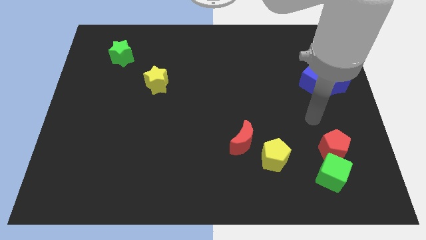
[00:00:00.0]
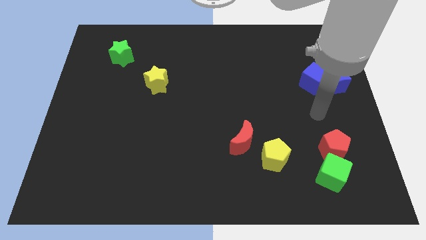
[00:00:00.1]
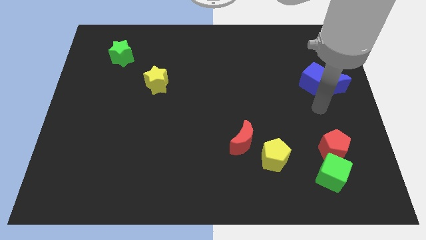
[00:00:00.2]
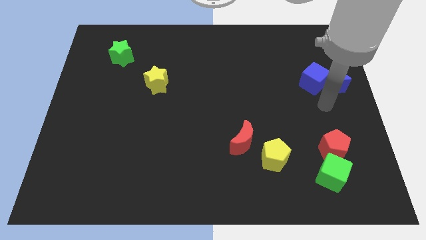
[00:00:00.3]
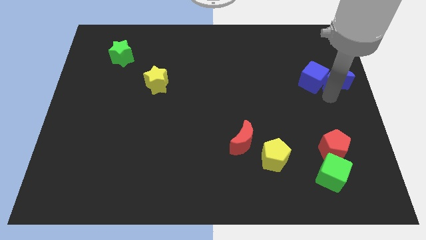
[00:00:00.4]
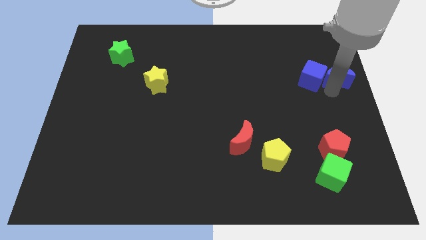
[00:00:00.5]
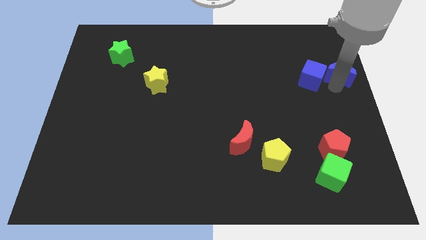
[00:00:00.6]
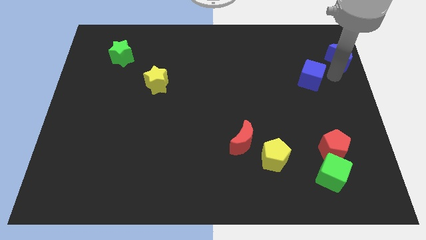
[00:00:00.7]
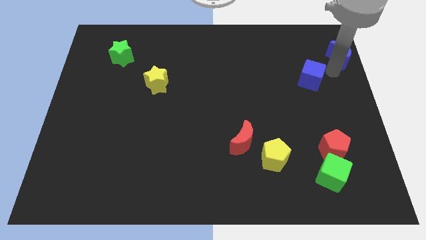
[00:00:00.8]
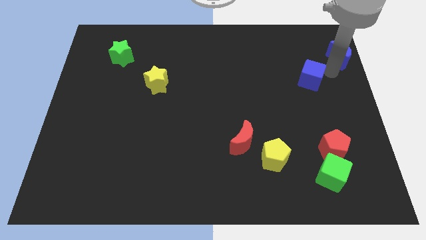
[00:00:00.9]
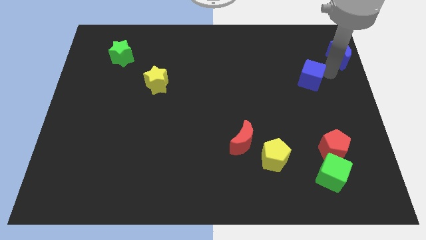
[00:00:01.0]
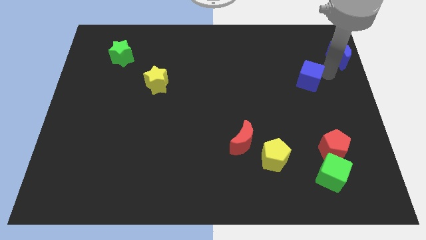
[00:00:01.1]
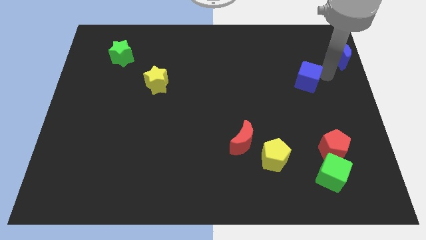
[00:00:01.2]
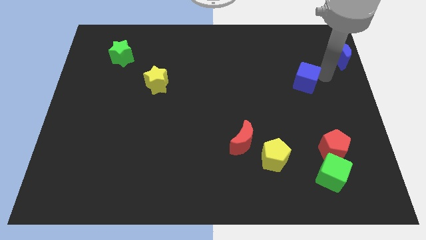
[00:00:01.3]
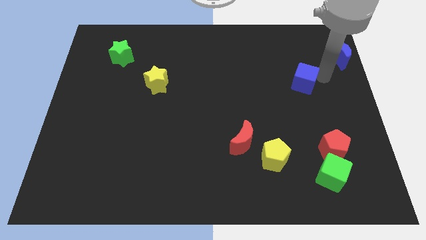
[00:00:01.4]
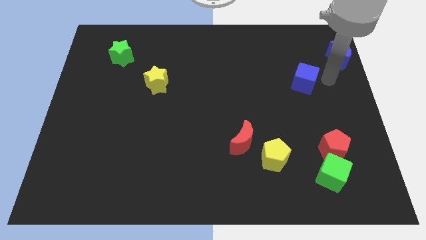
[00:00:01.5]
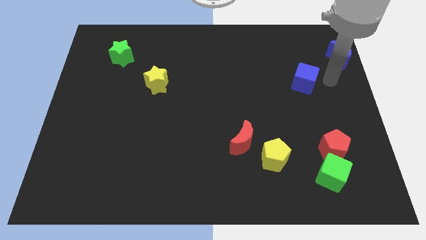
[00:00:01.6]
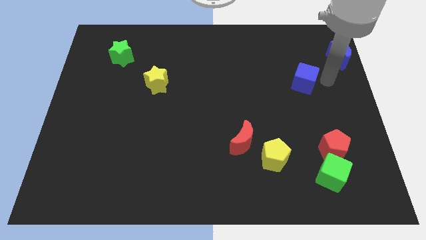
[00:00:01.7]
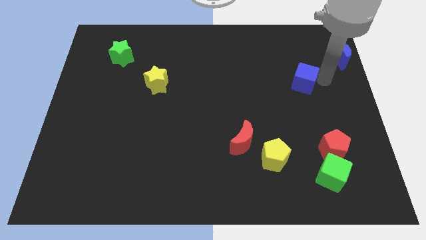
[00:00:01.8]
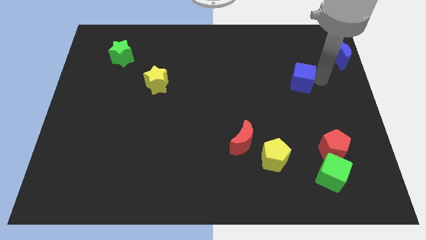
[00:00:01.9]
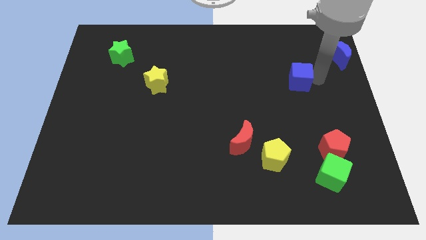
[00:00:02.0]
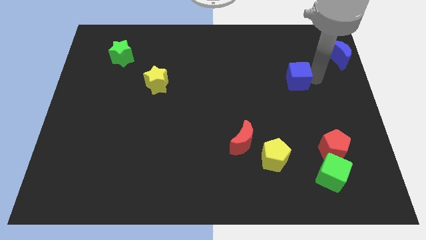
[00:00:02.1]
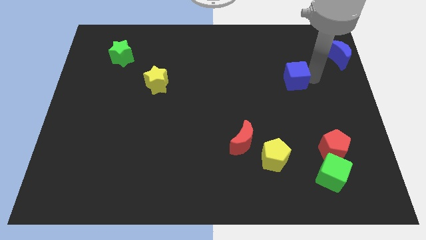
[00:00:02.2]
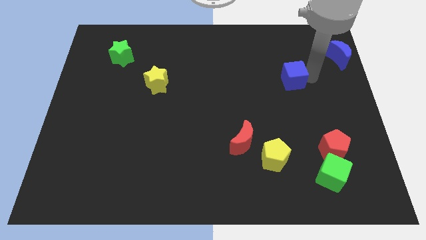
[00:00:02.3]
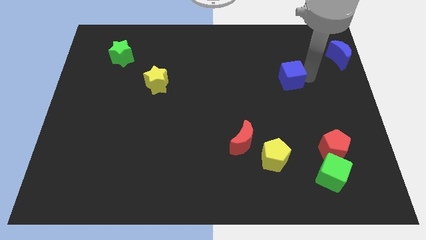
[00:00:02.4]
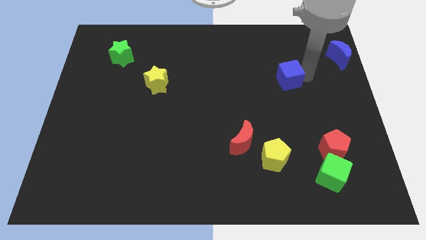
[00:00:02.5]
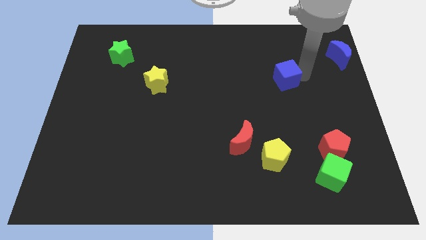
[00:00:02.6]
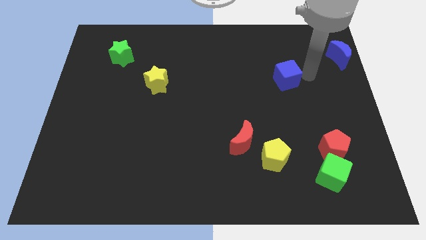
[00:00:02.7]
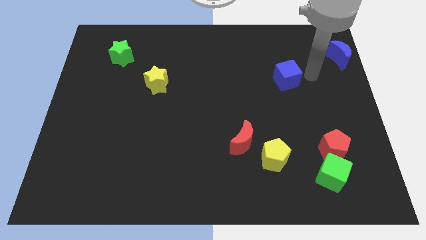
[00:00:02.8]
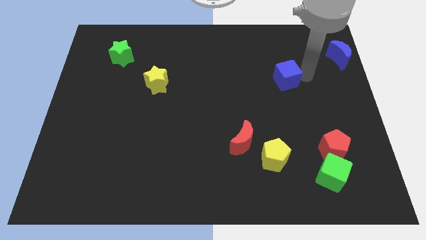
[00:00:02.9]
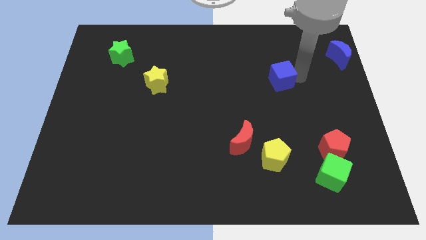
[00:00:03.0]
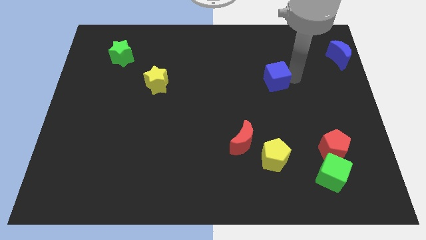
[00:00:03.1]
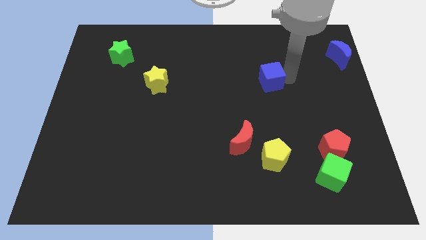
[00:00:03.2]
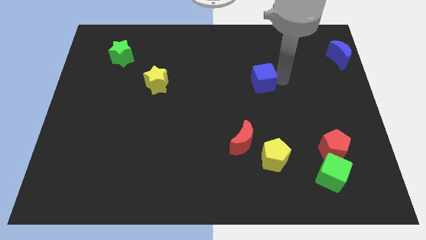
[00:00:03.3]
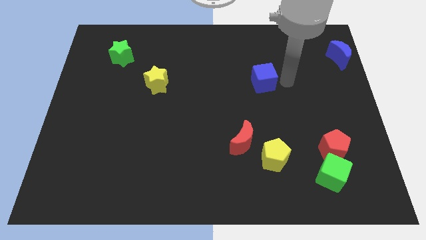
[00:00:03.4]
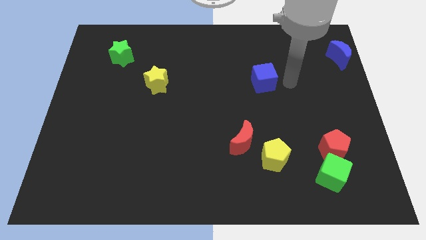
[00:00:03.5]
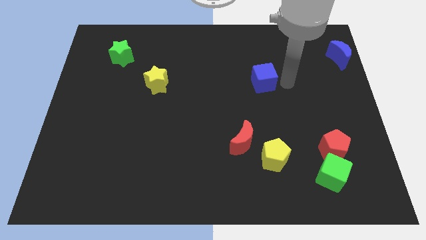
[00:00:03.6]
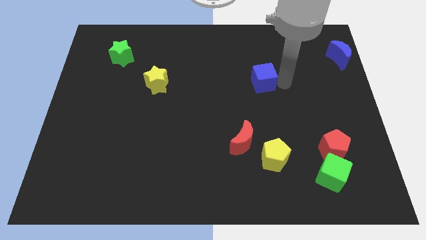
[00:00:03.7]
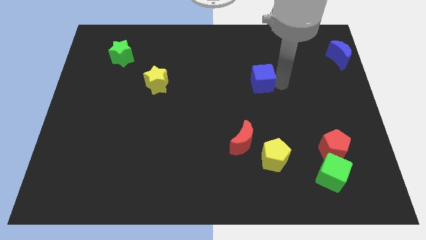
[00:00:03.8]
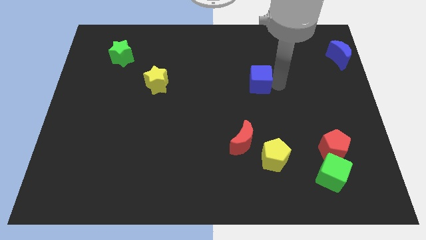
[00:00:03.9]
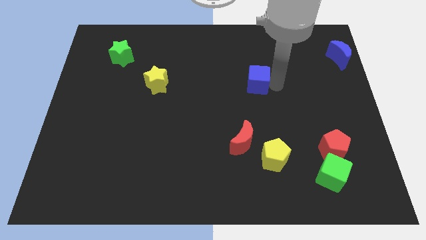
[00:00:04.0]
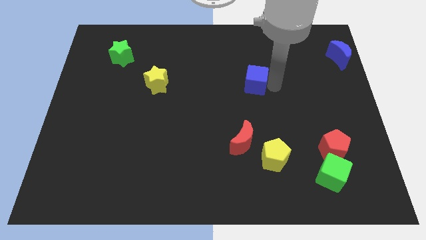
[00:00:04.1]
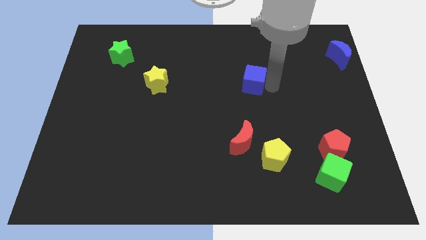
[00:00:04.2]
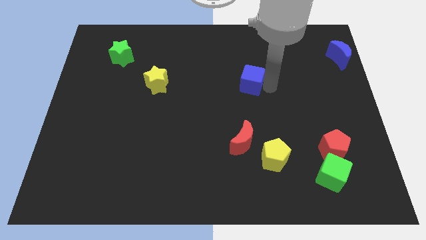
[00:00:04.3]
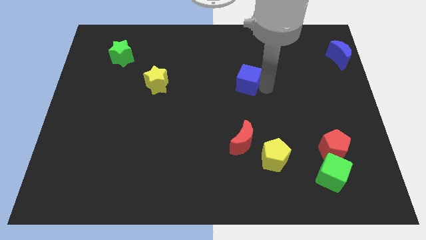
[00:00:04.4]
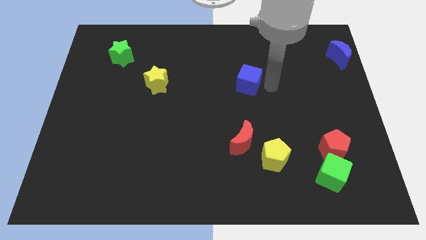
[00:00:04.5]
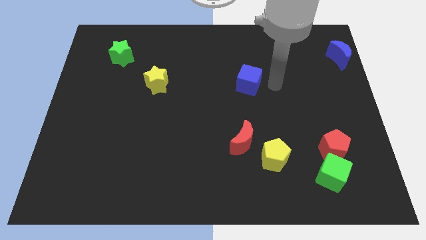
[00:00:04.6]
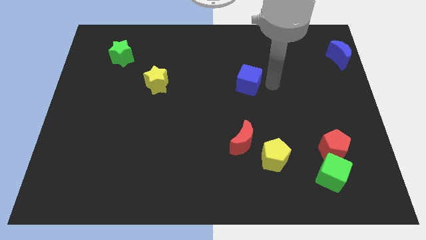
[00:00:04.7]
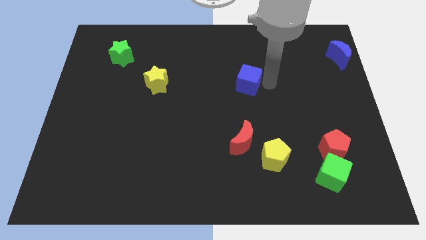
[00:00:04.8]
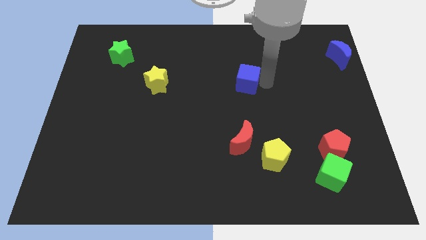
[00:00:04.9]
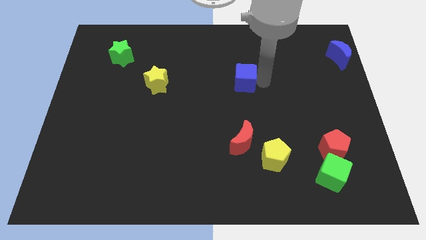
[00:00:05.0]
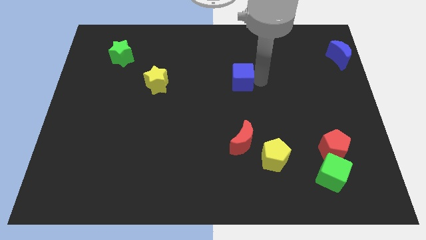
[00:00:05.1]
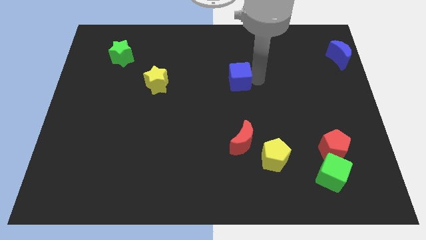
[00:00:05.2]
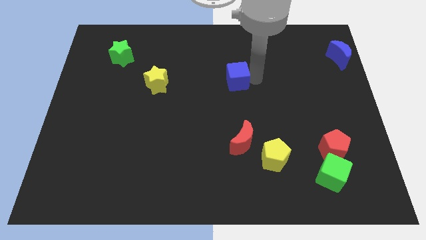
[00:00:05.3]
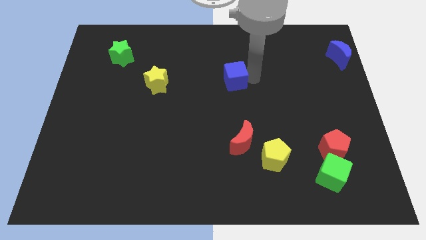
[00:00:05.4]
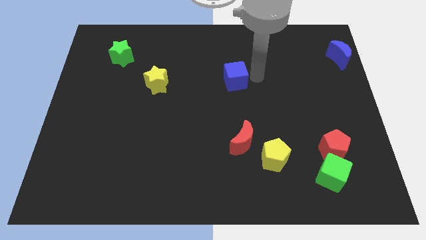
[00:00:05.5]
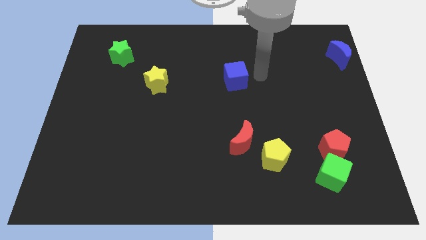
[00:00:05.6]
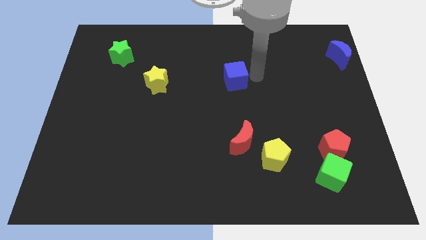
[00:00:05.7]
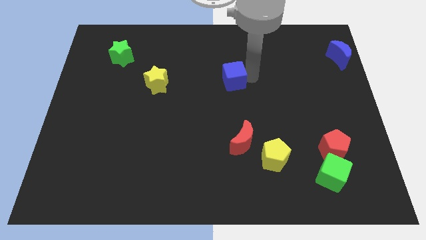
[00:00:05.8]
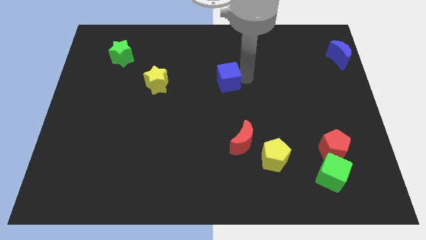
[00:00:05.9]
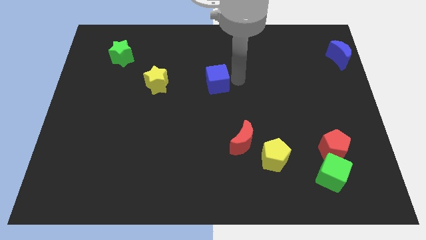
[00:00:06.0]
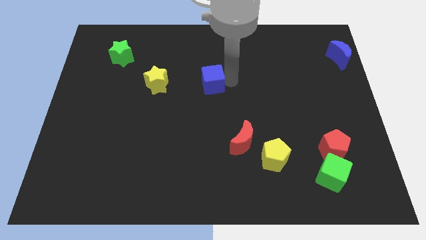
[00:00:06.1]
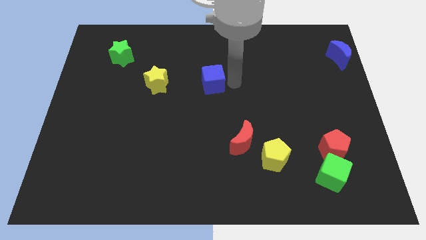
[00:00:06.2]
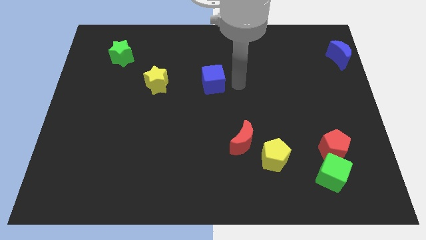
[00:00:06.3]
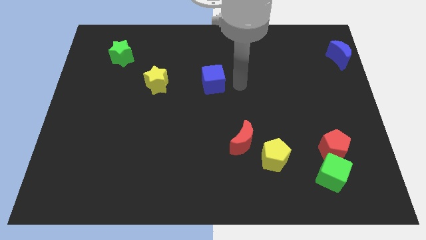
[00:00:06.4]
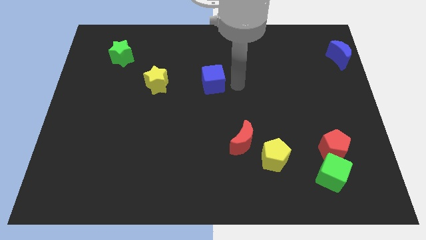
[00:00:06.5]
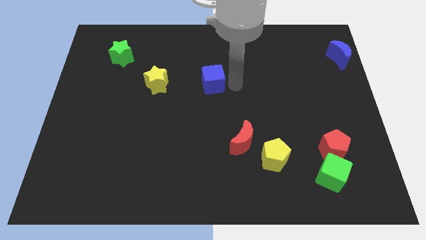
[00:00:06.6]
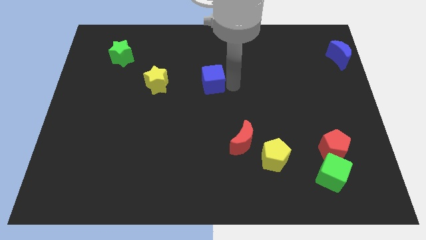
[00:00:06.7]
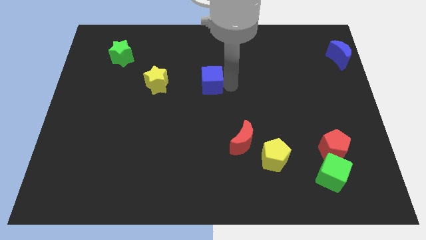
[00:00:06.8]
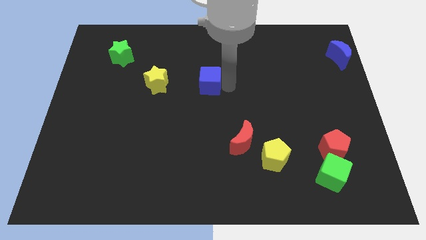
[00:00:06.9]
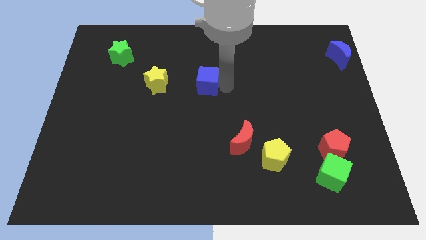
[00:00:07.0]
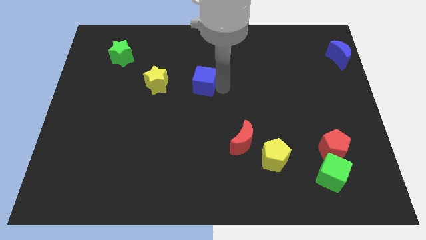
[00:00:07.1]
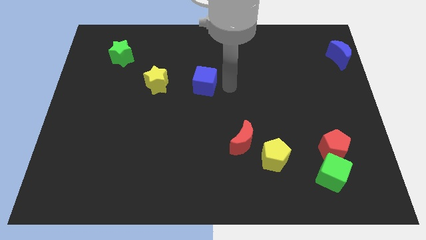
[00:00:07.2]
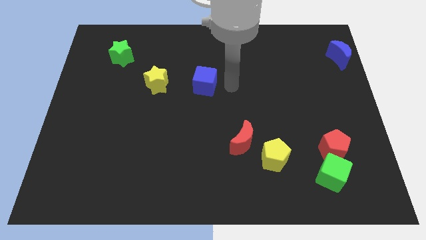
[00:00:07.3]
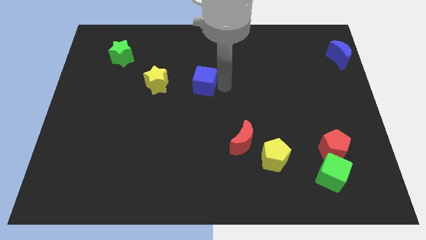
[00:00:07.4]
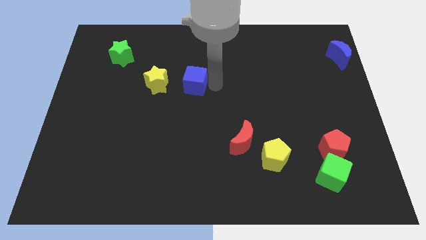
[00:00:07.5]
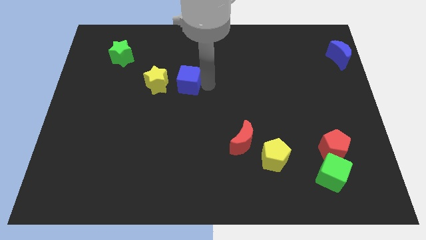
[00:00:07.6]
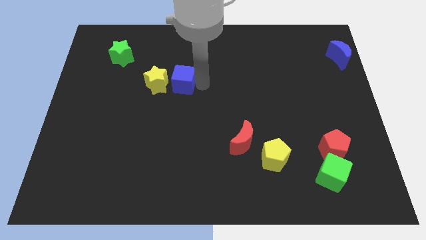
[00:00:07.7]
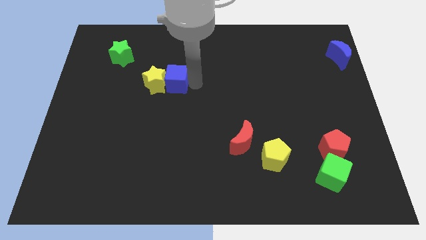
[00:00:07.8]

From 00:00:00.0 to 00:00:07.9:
put the blue cube towards the yellow star
